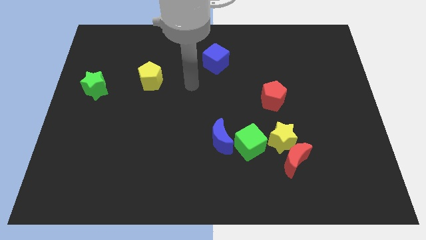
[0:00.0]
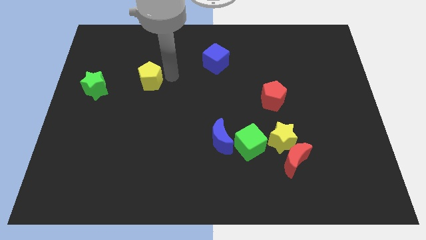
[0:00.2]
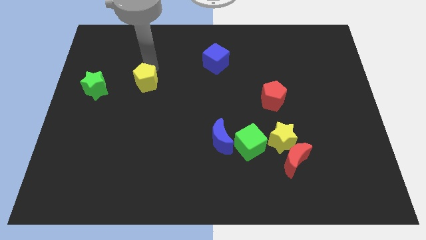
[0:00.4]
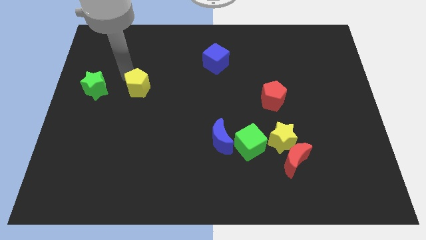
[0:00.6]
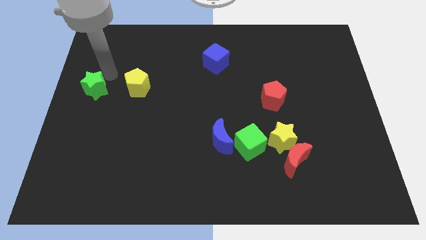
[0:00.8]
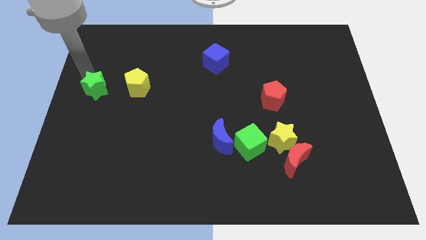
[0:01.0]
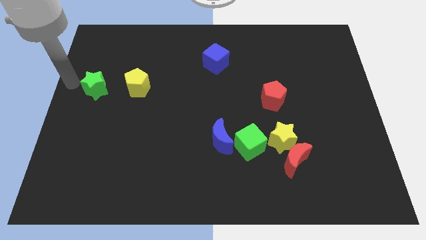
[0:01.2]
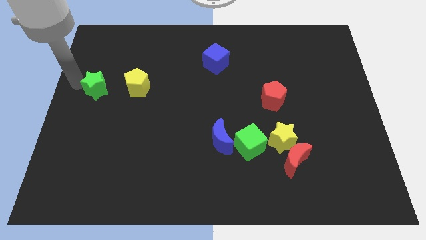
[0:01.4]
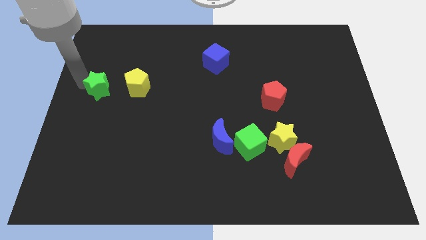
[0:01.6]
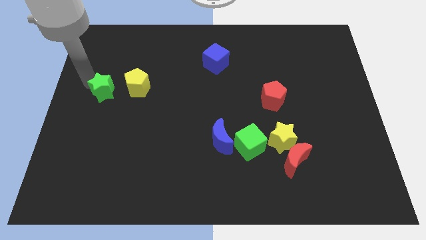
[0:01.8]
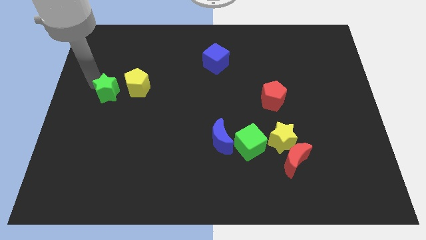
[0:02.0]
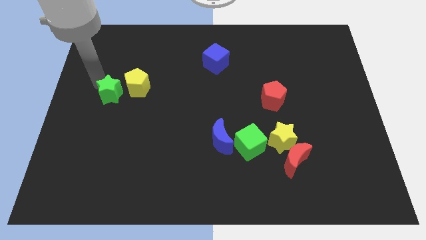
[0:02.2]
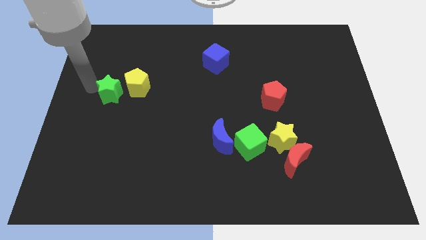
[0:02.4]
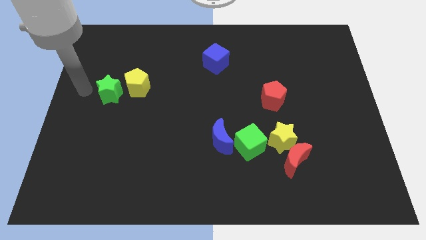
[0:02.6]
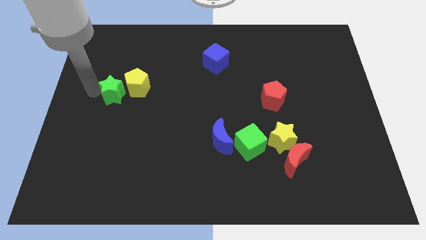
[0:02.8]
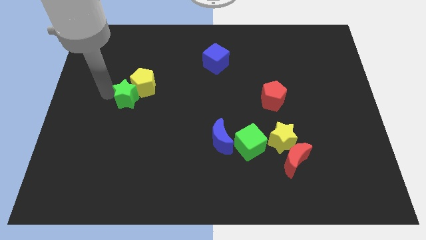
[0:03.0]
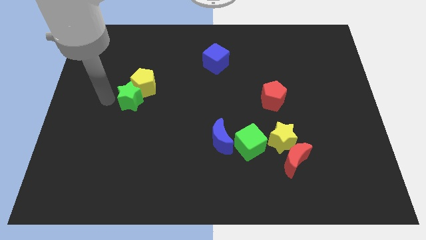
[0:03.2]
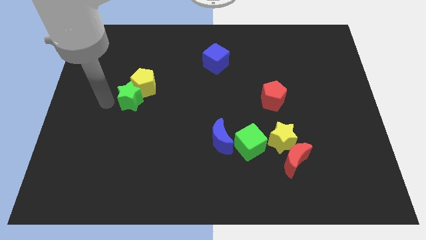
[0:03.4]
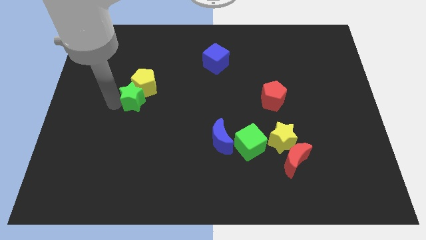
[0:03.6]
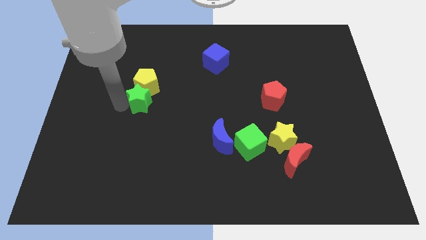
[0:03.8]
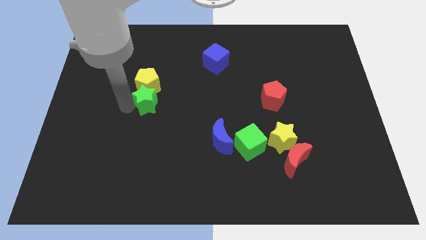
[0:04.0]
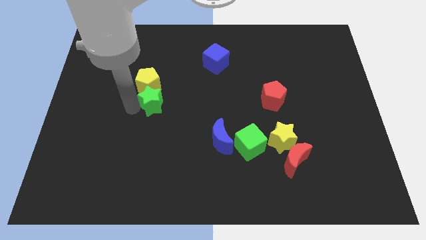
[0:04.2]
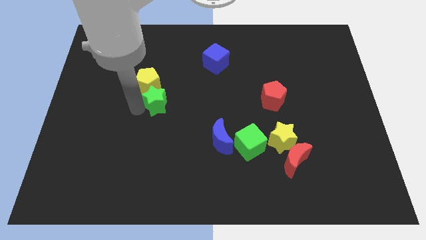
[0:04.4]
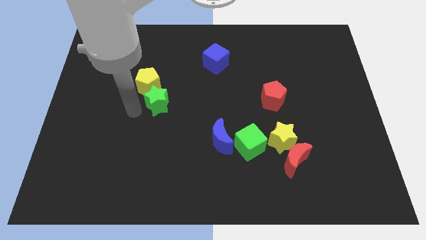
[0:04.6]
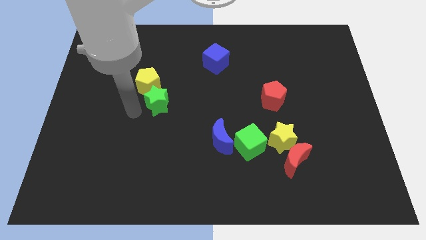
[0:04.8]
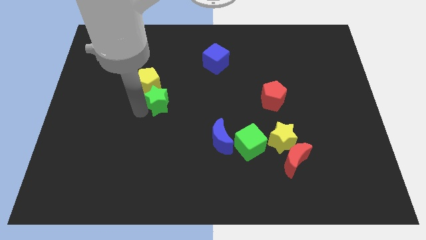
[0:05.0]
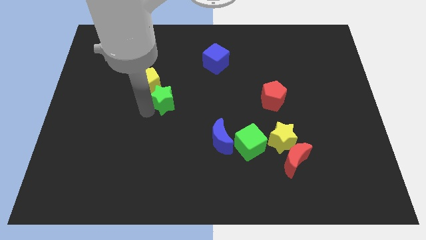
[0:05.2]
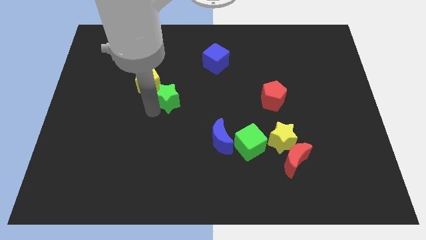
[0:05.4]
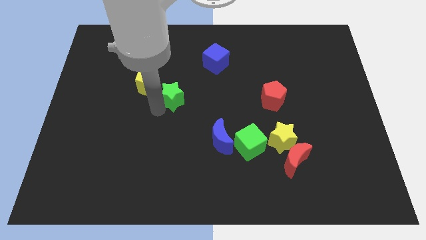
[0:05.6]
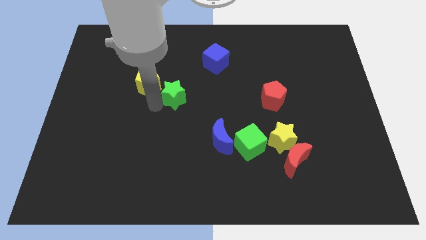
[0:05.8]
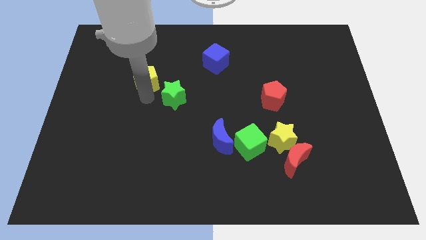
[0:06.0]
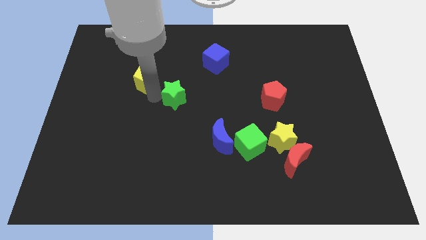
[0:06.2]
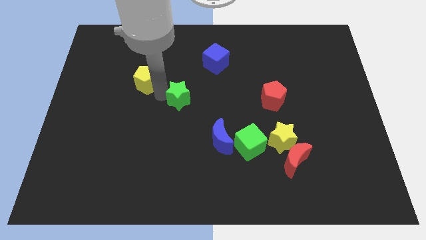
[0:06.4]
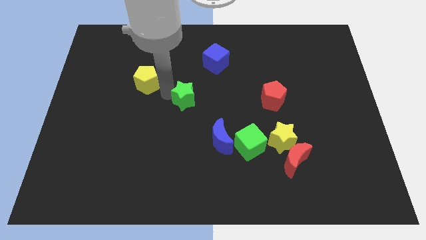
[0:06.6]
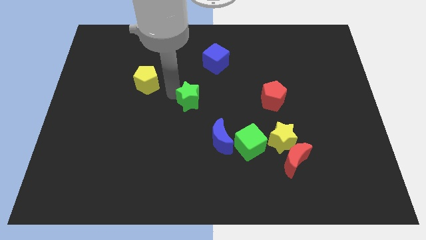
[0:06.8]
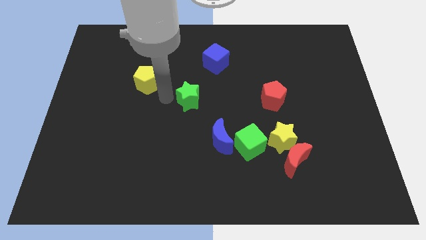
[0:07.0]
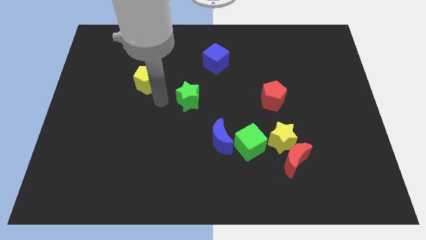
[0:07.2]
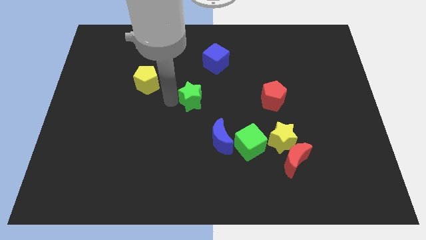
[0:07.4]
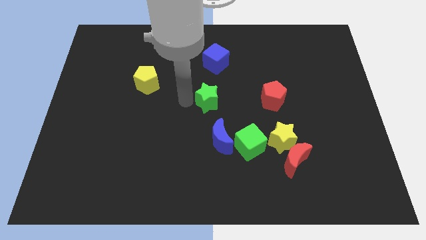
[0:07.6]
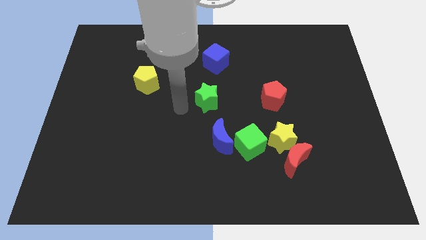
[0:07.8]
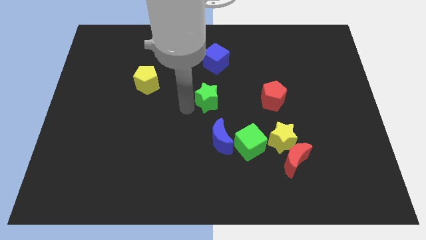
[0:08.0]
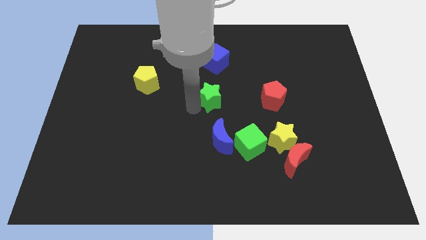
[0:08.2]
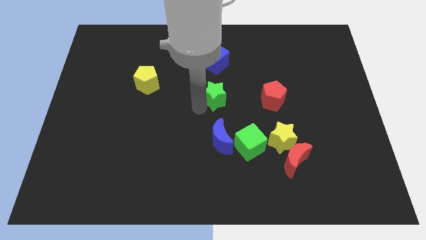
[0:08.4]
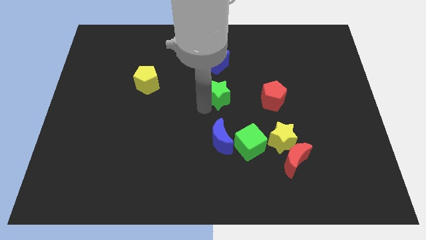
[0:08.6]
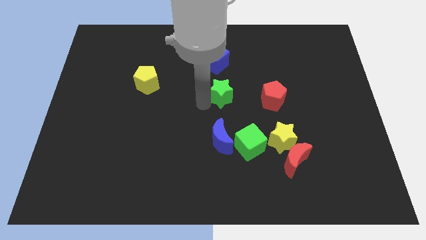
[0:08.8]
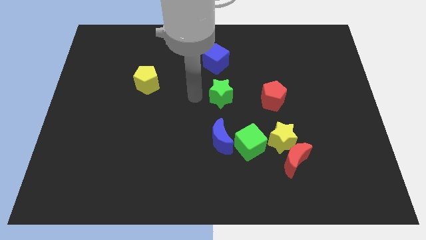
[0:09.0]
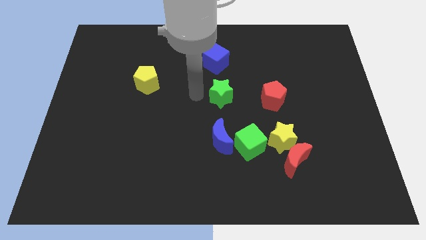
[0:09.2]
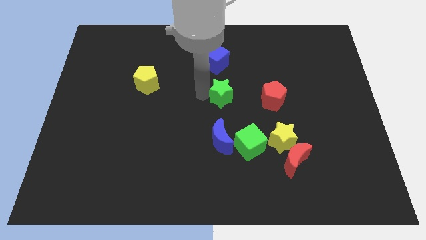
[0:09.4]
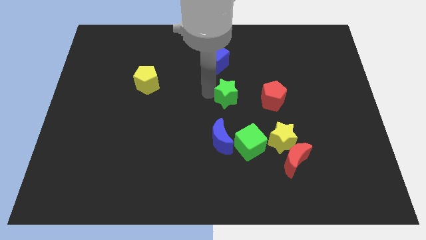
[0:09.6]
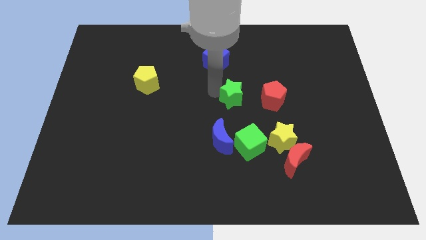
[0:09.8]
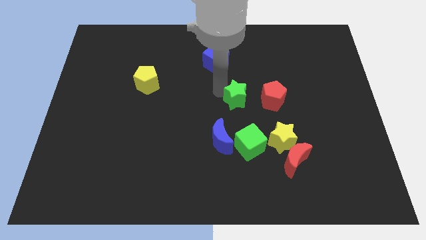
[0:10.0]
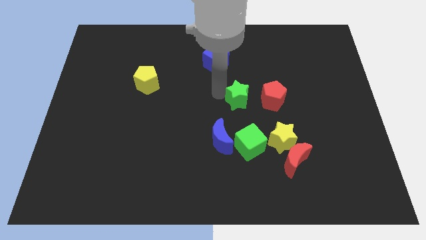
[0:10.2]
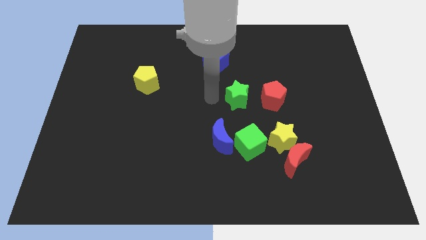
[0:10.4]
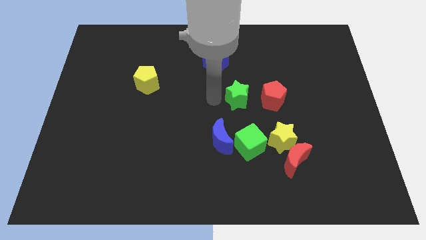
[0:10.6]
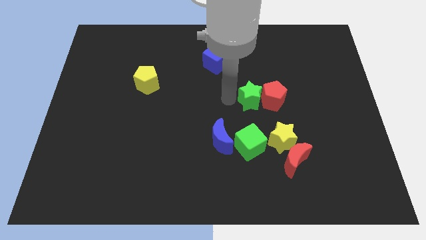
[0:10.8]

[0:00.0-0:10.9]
move the green star close to the red pentagon

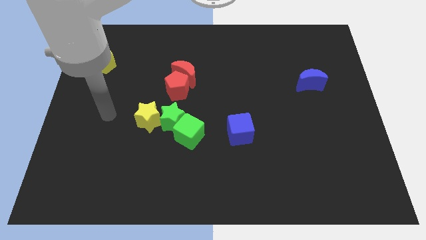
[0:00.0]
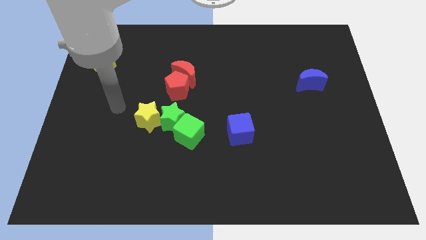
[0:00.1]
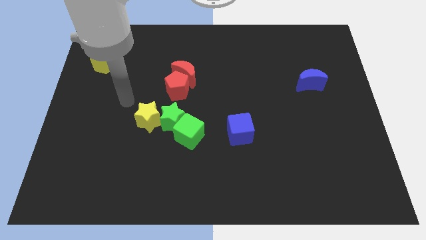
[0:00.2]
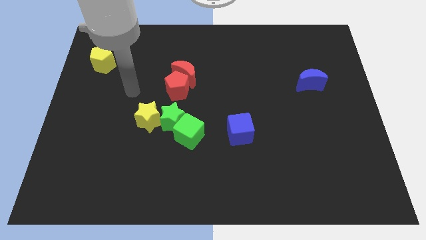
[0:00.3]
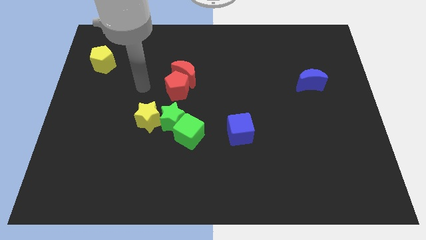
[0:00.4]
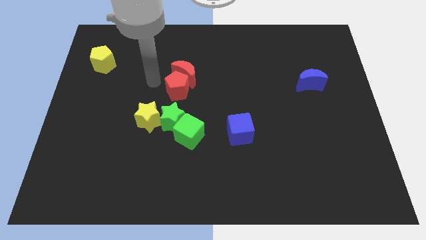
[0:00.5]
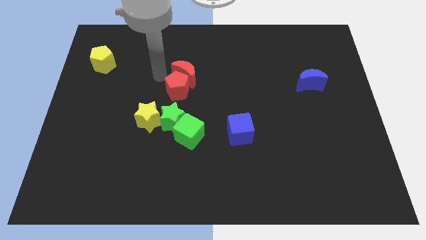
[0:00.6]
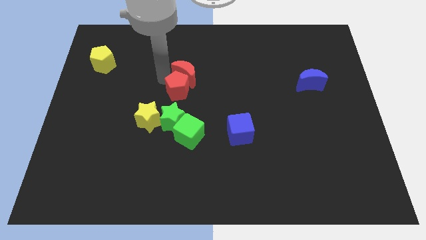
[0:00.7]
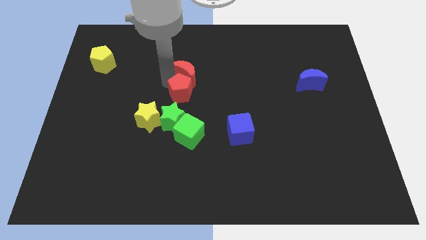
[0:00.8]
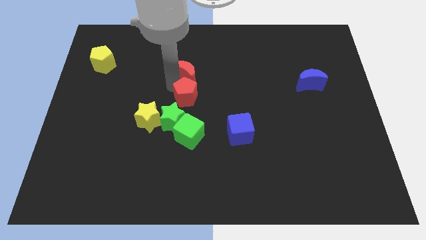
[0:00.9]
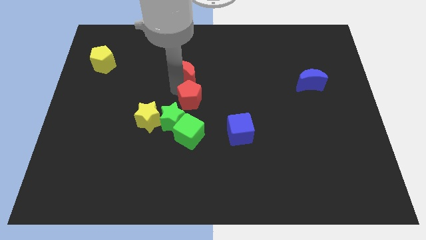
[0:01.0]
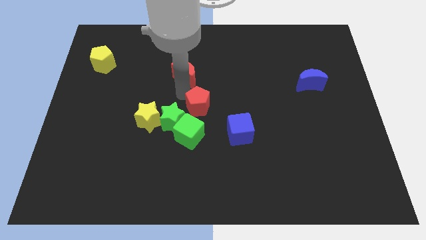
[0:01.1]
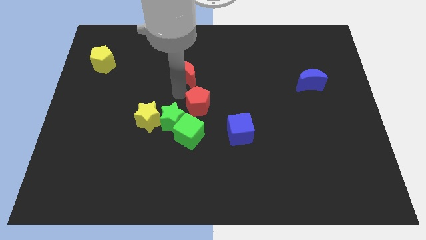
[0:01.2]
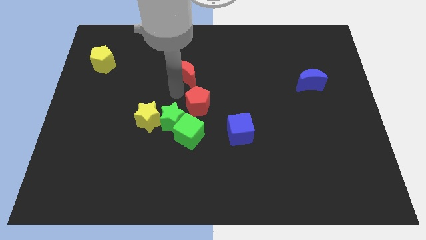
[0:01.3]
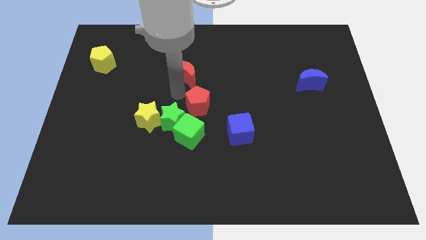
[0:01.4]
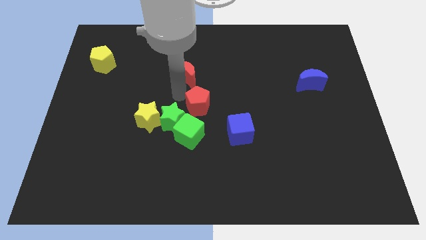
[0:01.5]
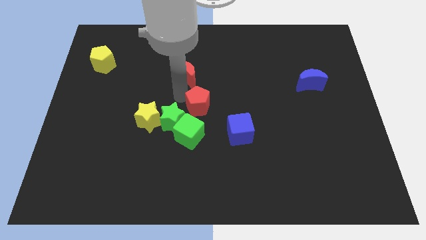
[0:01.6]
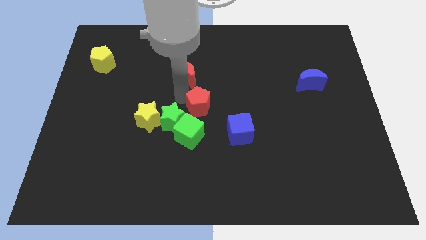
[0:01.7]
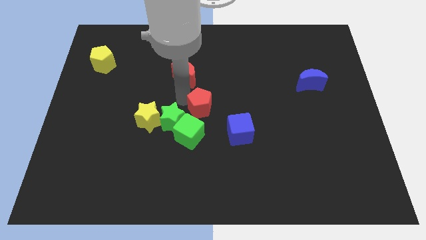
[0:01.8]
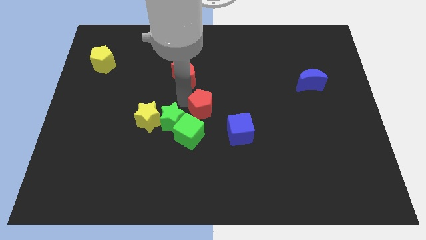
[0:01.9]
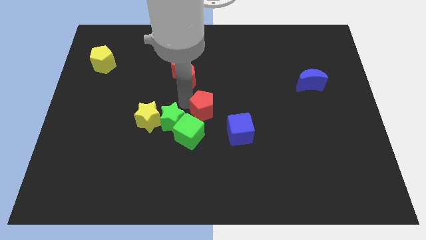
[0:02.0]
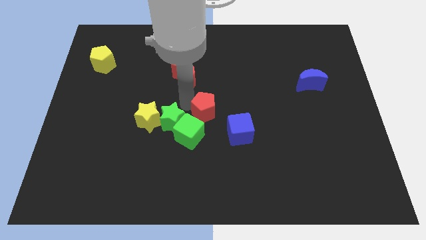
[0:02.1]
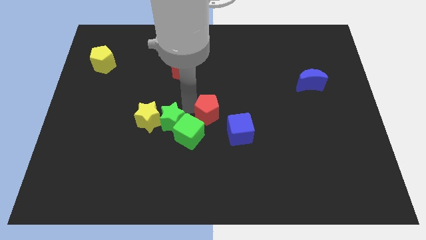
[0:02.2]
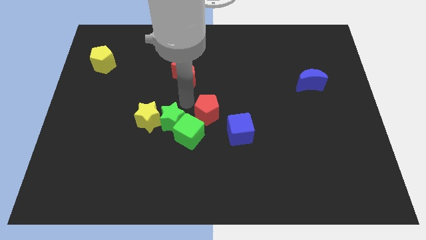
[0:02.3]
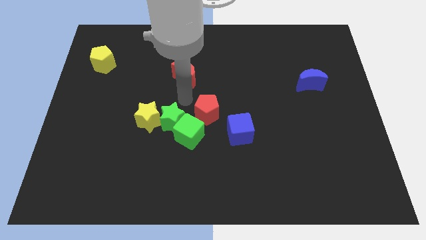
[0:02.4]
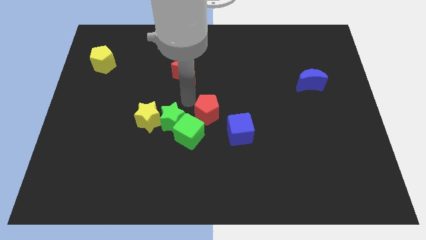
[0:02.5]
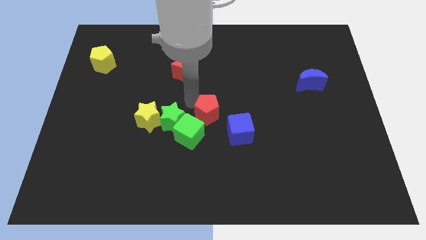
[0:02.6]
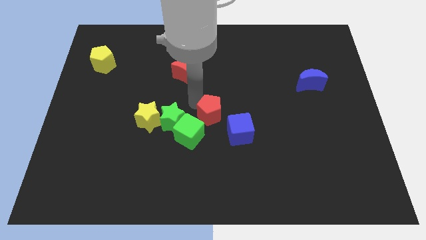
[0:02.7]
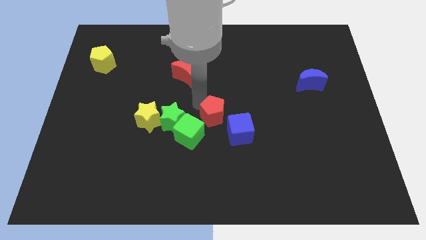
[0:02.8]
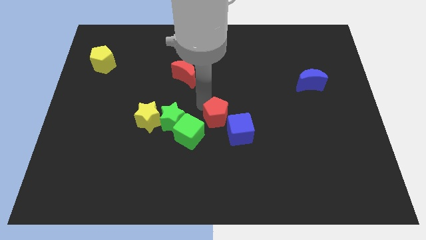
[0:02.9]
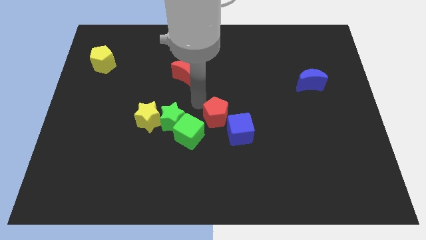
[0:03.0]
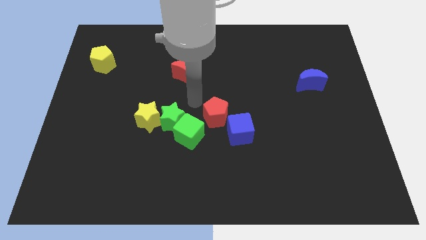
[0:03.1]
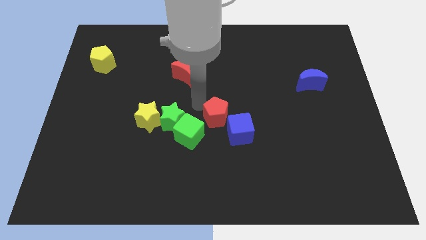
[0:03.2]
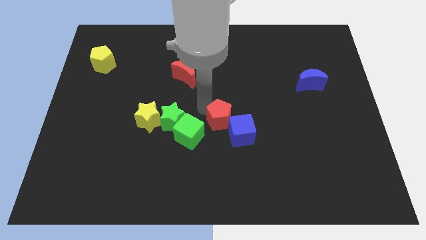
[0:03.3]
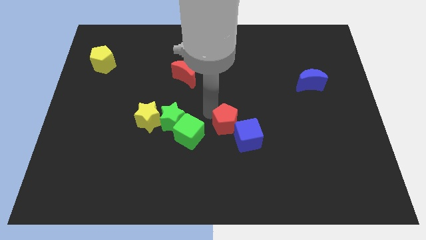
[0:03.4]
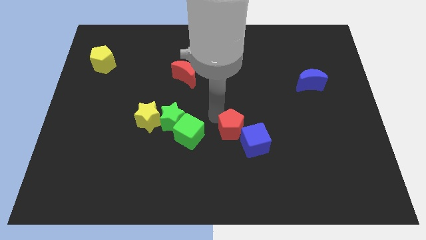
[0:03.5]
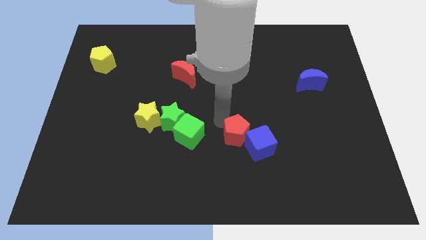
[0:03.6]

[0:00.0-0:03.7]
slide the red pentagon towards the blue cube
